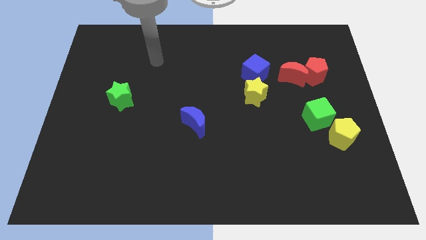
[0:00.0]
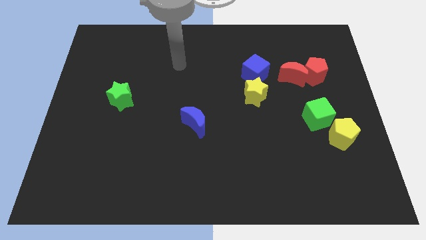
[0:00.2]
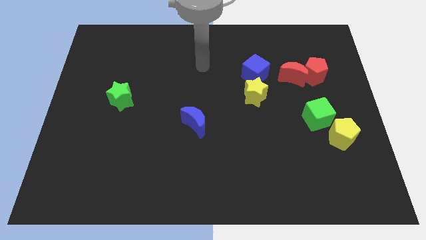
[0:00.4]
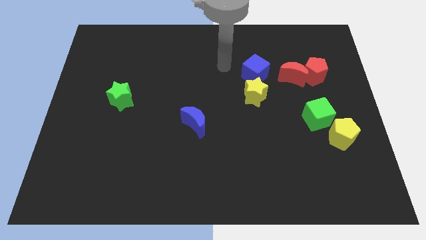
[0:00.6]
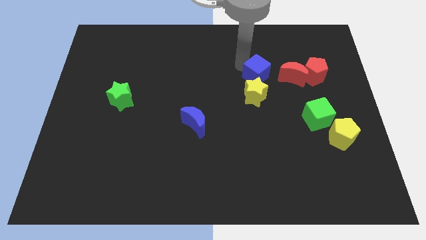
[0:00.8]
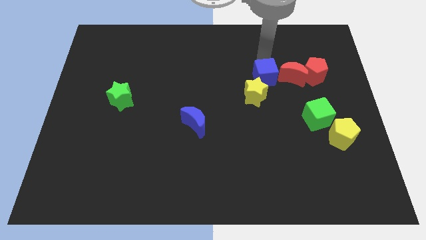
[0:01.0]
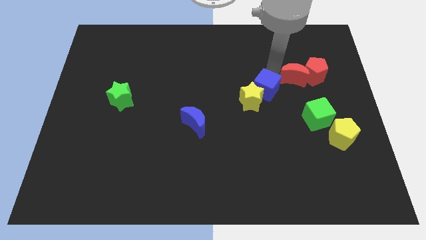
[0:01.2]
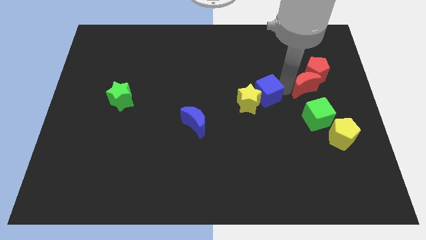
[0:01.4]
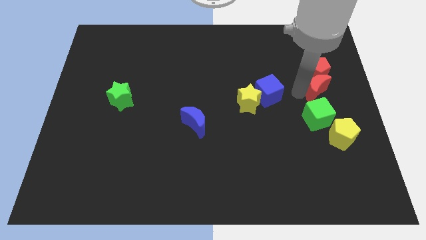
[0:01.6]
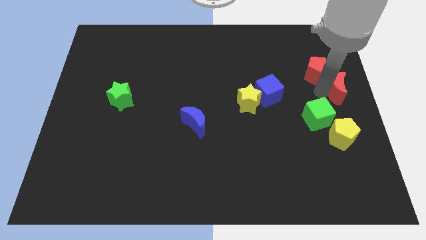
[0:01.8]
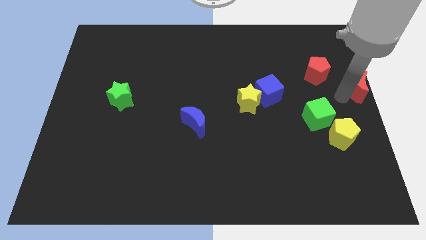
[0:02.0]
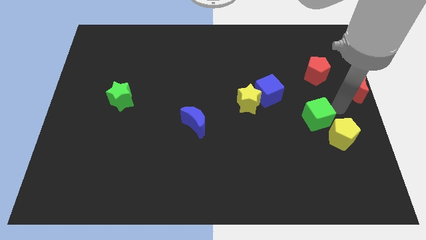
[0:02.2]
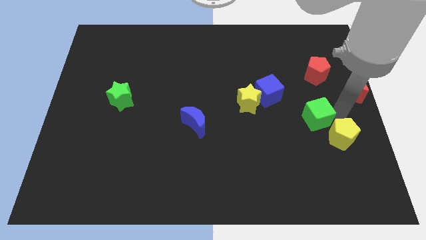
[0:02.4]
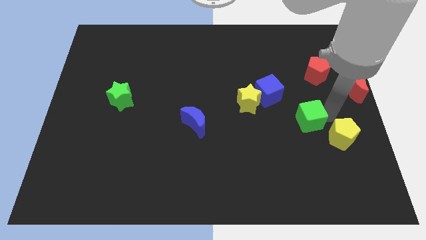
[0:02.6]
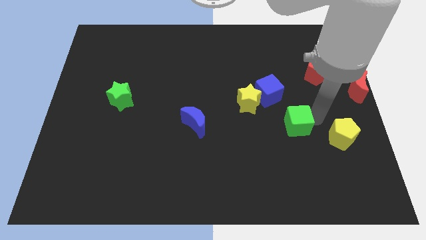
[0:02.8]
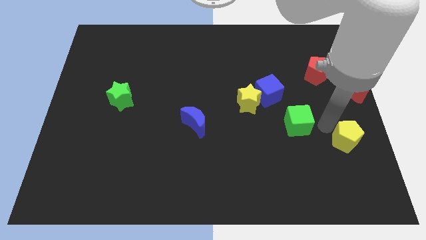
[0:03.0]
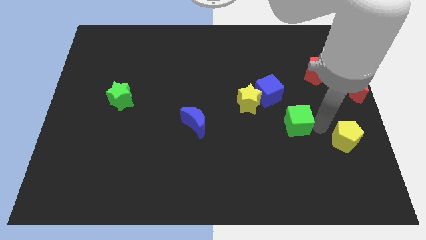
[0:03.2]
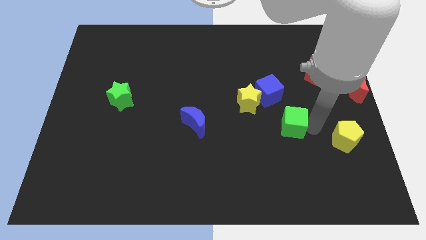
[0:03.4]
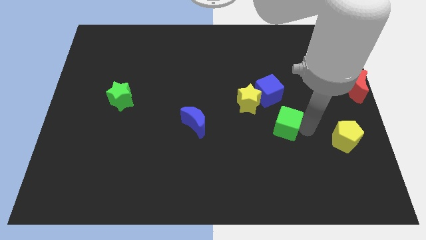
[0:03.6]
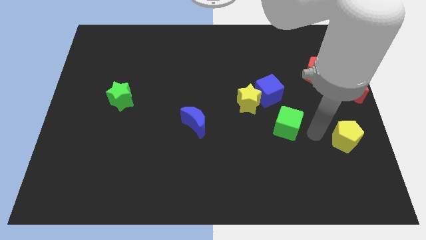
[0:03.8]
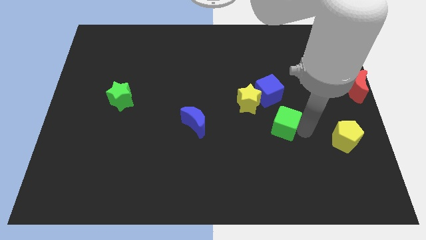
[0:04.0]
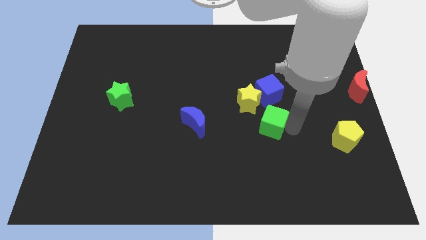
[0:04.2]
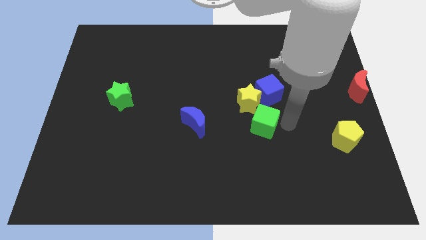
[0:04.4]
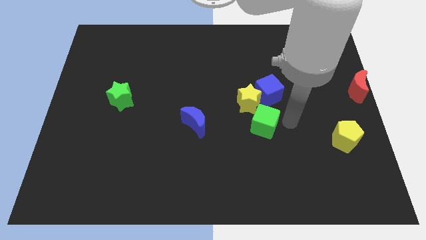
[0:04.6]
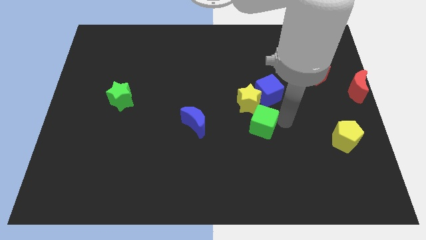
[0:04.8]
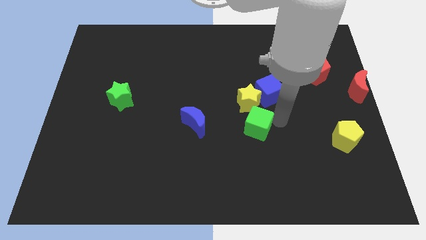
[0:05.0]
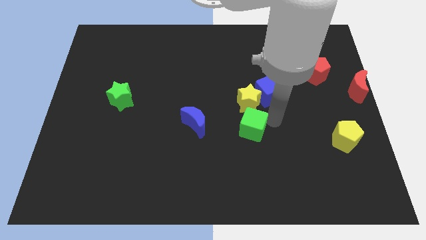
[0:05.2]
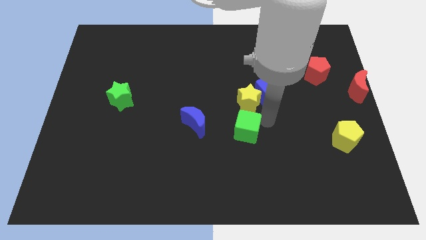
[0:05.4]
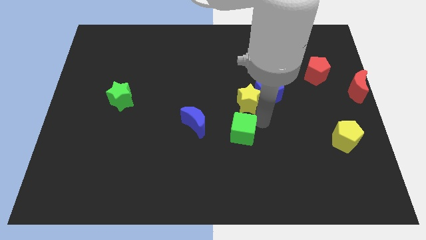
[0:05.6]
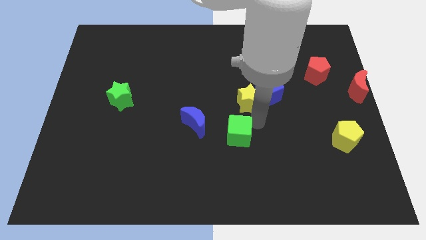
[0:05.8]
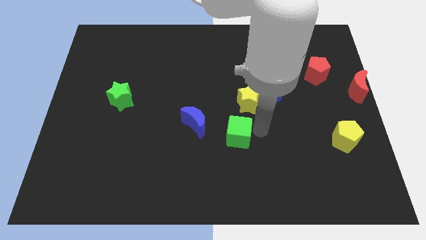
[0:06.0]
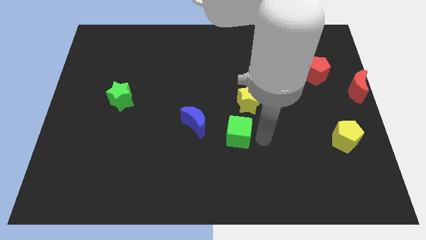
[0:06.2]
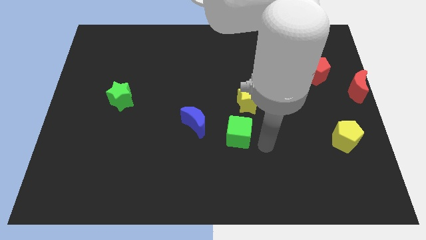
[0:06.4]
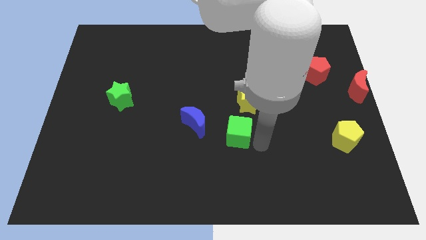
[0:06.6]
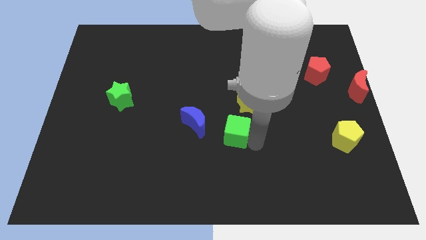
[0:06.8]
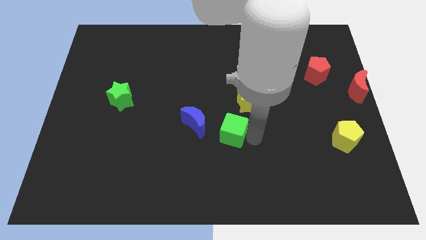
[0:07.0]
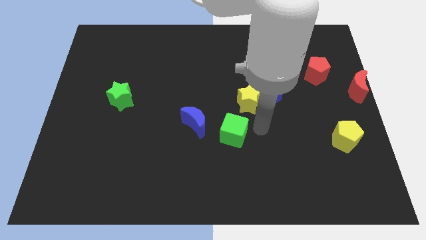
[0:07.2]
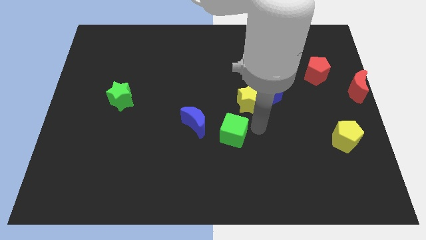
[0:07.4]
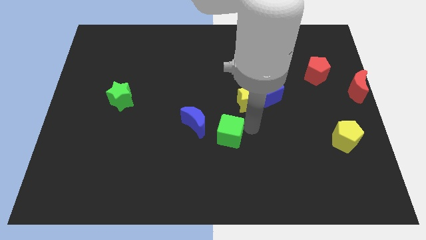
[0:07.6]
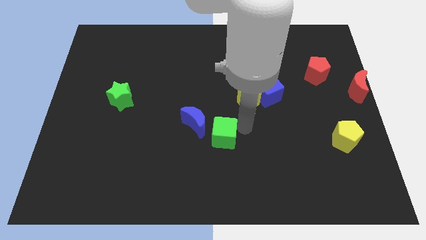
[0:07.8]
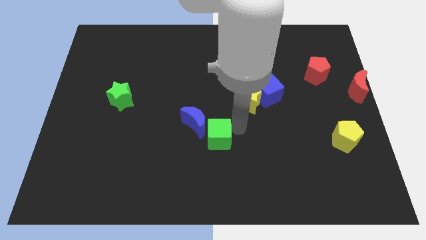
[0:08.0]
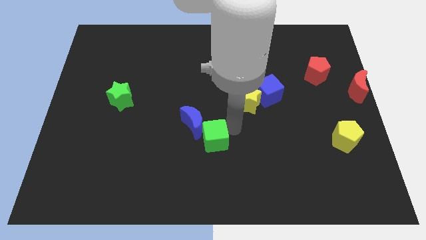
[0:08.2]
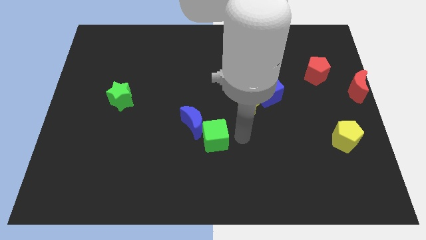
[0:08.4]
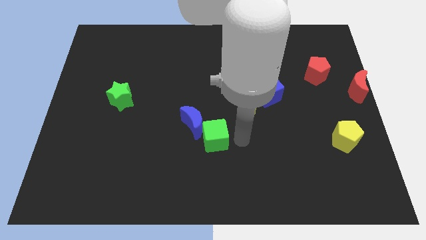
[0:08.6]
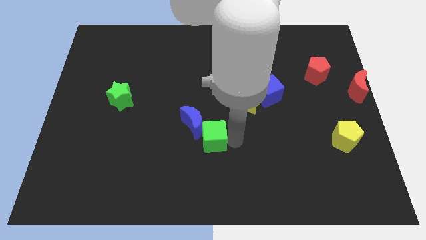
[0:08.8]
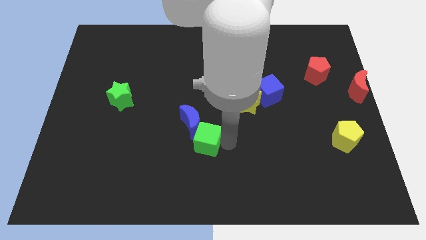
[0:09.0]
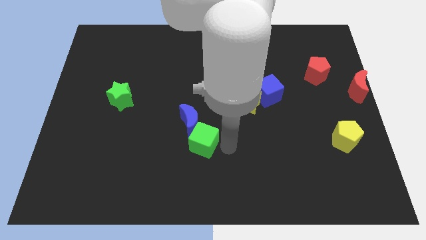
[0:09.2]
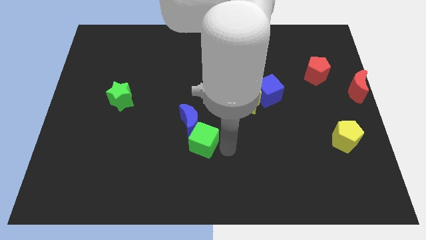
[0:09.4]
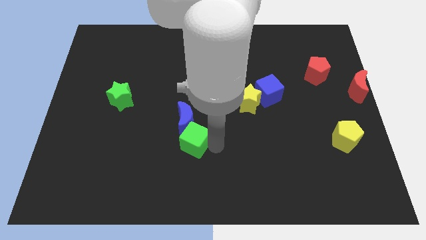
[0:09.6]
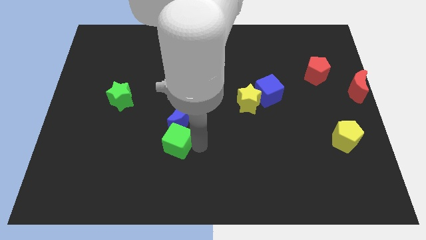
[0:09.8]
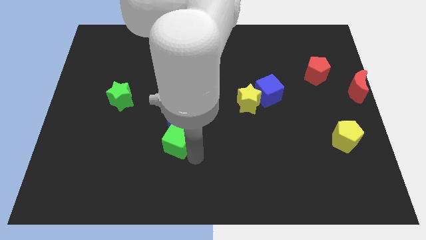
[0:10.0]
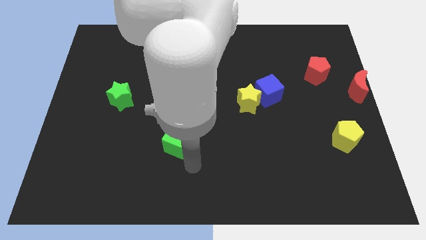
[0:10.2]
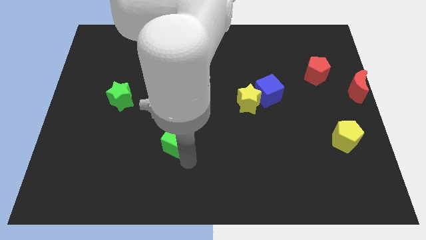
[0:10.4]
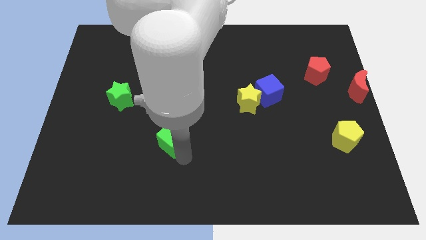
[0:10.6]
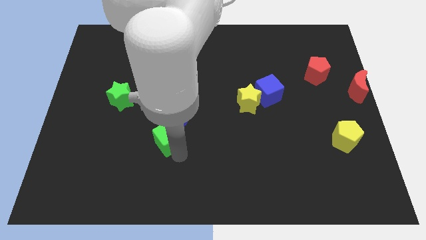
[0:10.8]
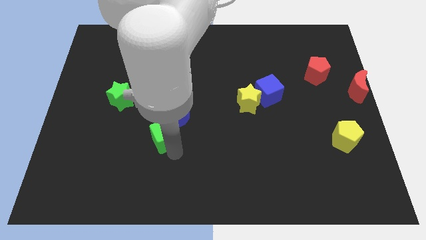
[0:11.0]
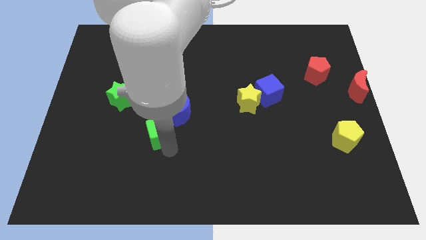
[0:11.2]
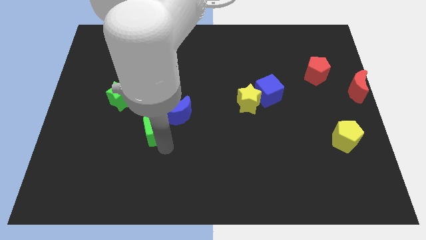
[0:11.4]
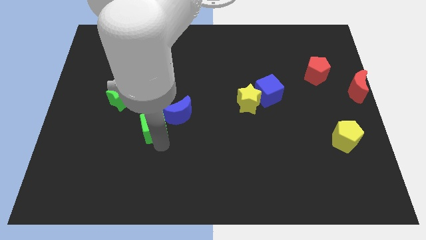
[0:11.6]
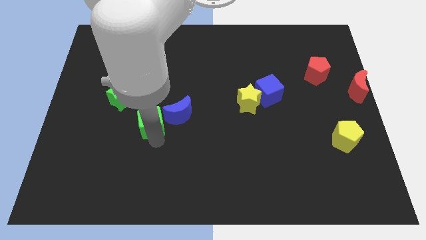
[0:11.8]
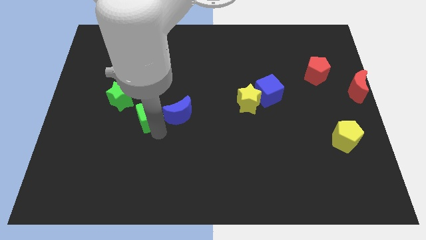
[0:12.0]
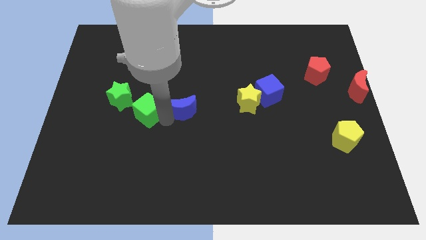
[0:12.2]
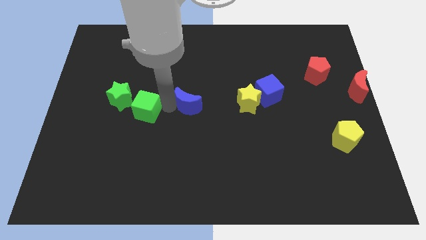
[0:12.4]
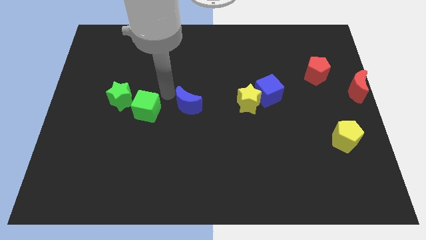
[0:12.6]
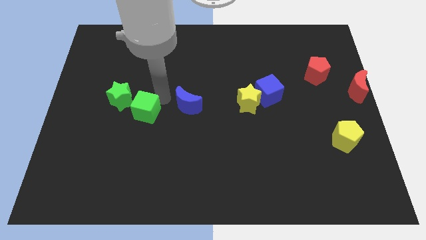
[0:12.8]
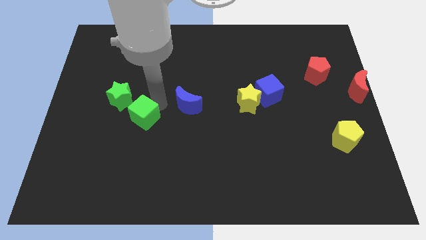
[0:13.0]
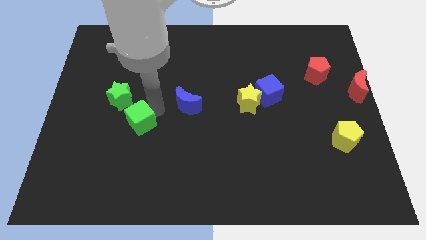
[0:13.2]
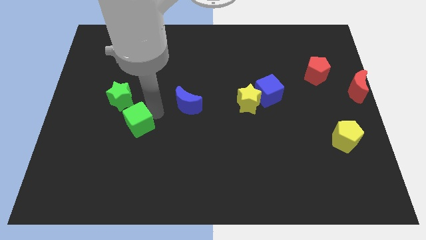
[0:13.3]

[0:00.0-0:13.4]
push the green cube to the bottom of the green star
